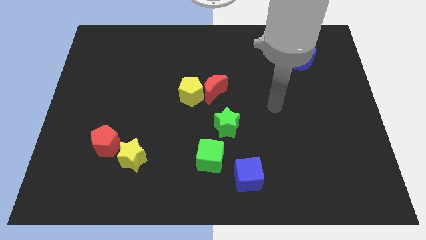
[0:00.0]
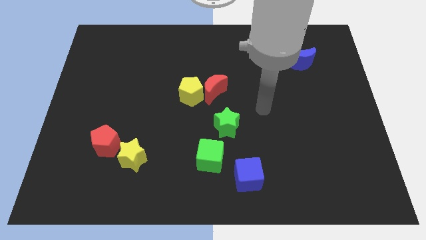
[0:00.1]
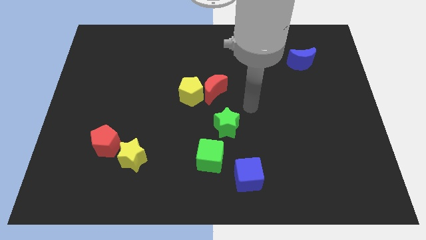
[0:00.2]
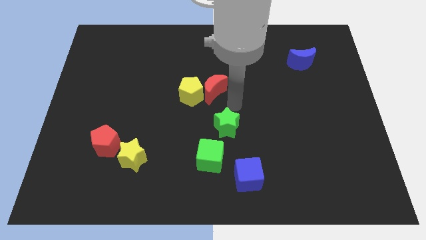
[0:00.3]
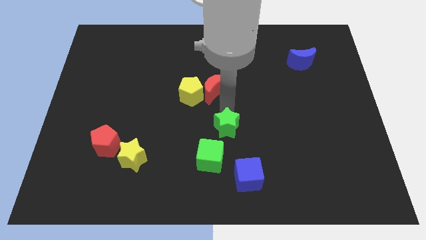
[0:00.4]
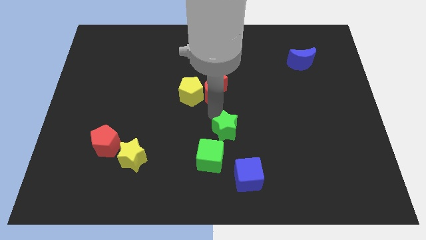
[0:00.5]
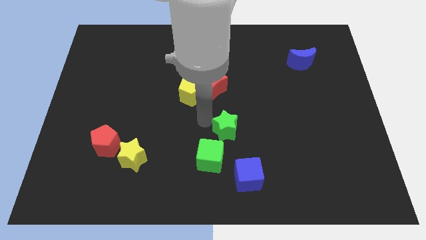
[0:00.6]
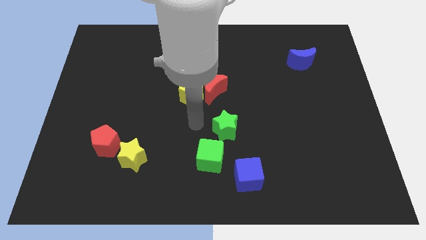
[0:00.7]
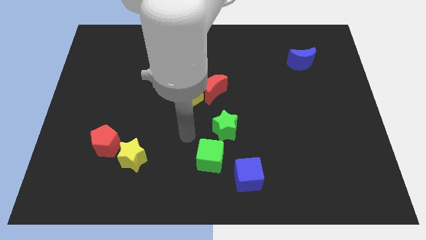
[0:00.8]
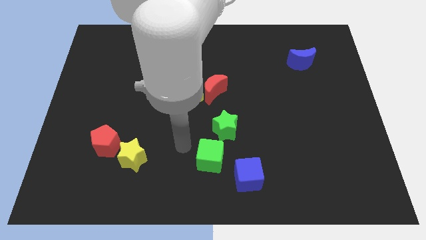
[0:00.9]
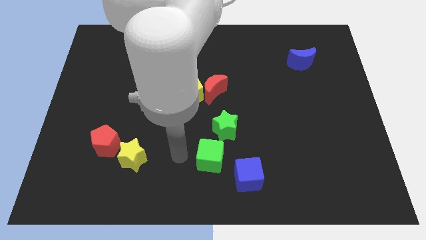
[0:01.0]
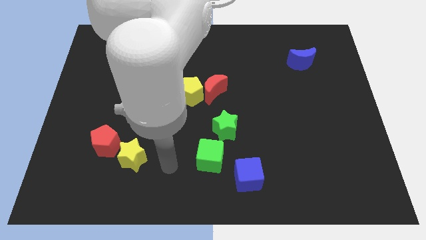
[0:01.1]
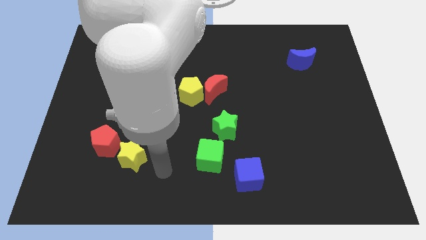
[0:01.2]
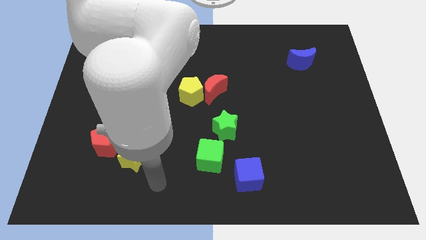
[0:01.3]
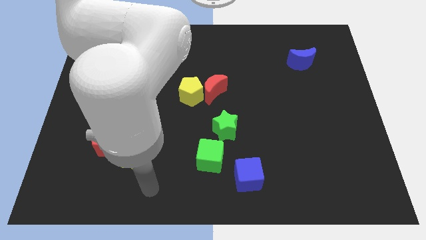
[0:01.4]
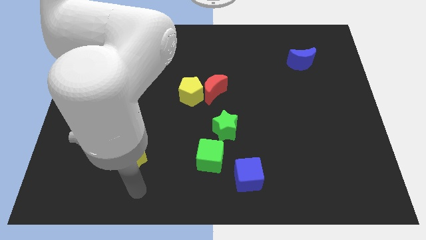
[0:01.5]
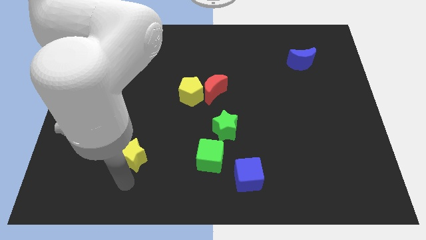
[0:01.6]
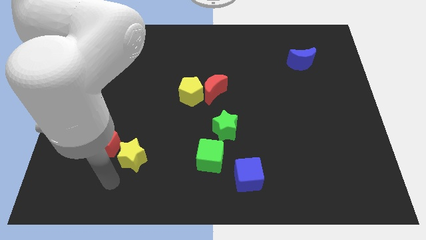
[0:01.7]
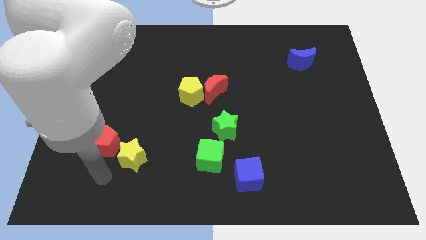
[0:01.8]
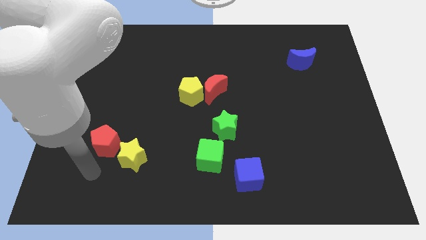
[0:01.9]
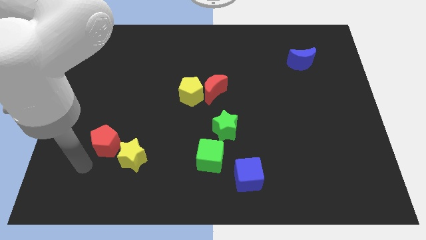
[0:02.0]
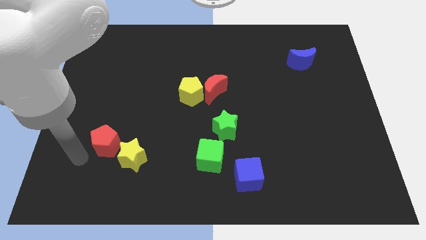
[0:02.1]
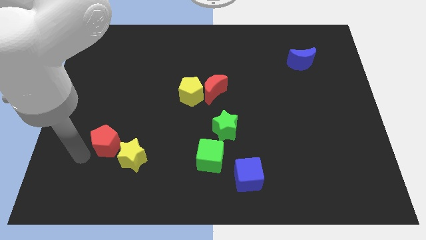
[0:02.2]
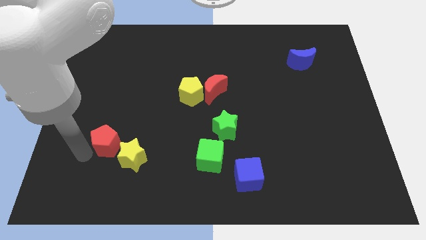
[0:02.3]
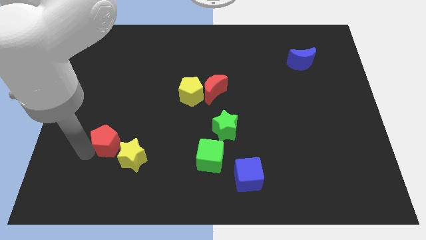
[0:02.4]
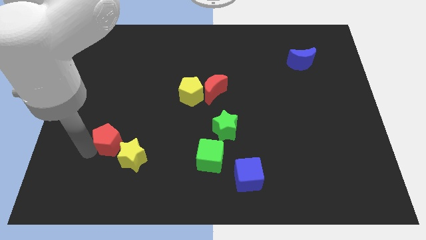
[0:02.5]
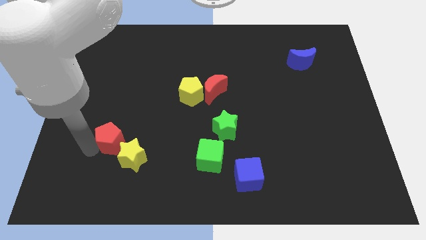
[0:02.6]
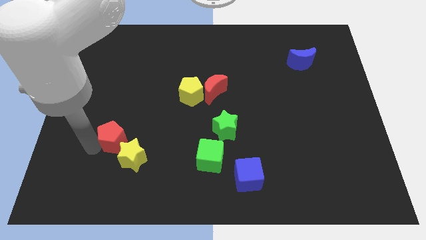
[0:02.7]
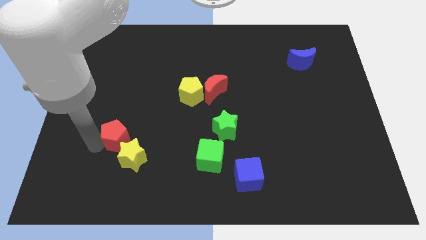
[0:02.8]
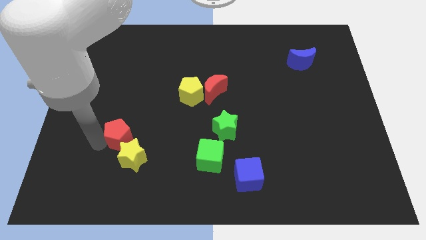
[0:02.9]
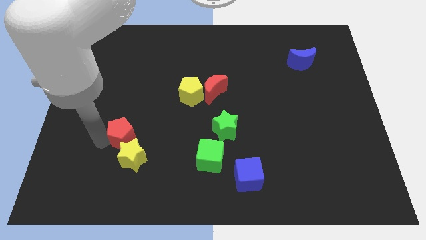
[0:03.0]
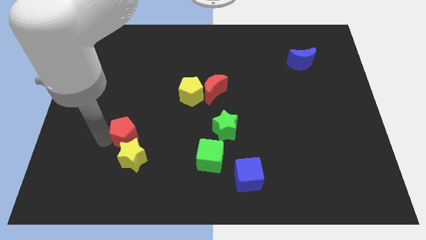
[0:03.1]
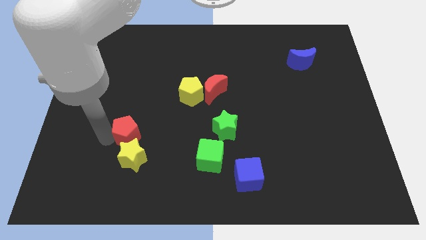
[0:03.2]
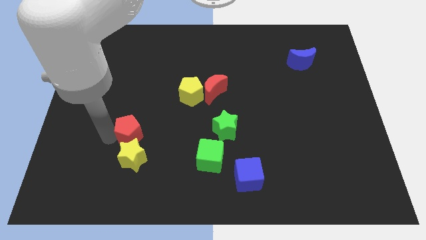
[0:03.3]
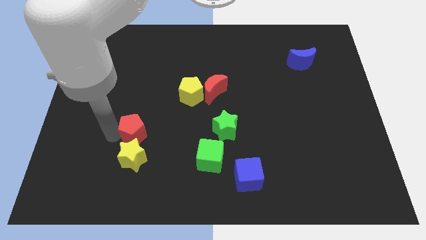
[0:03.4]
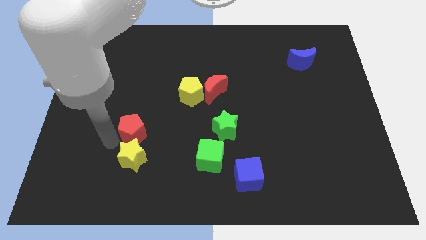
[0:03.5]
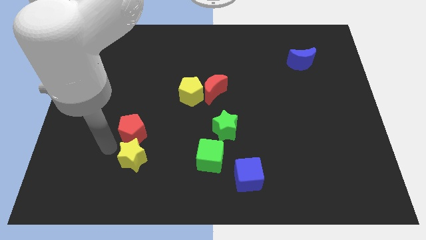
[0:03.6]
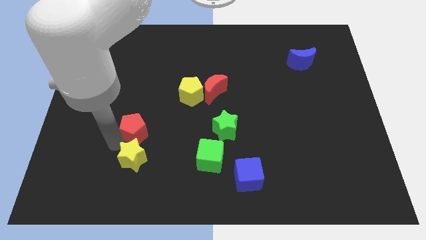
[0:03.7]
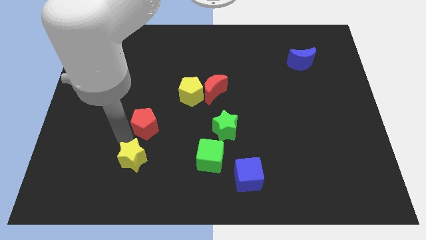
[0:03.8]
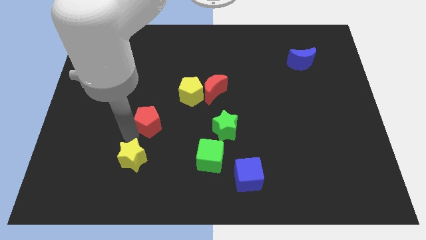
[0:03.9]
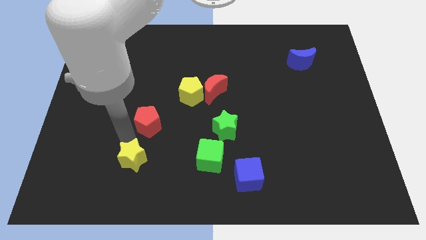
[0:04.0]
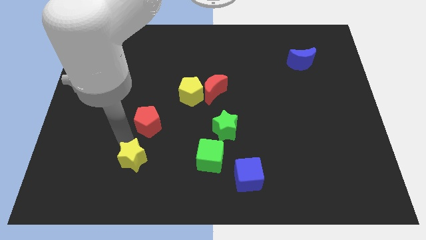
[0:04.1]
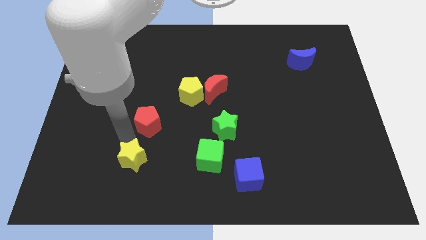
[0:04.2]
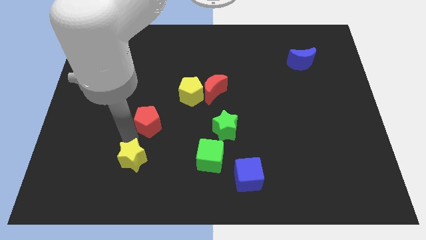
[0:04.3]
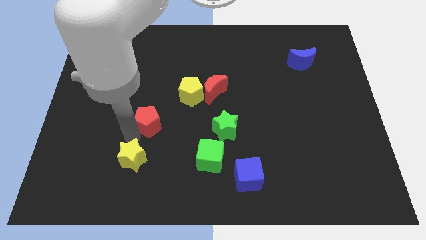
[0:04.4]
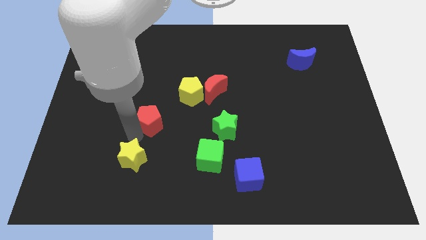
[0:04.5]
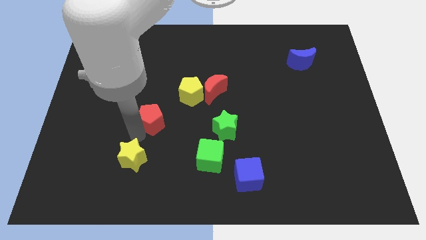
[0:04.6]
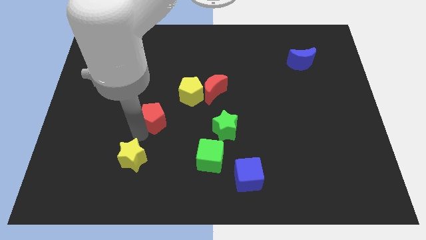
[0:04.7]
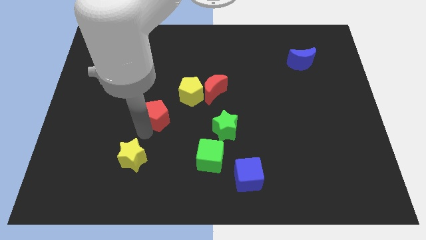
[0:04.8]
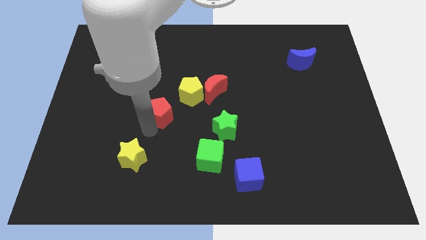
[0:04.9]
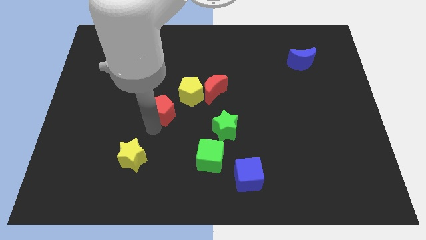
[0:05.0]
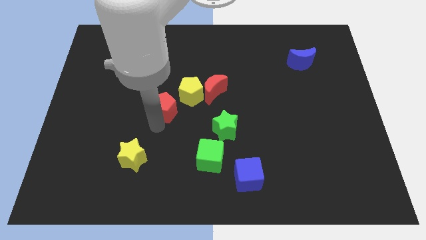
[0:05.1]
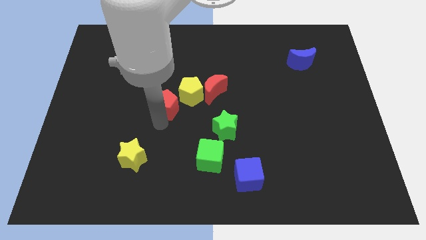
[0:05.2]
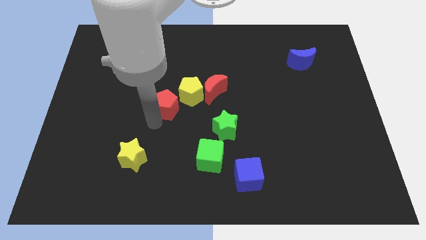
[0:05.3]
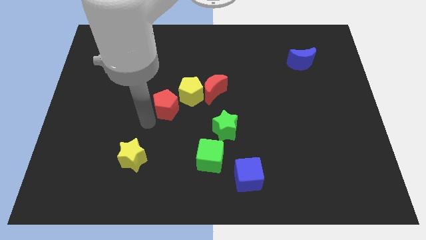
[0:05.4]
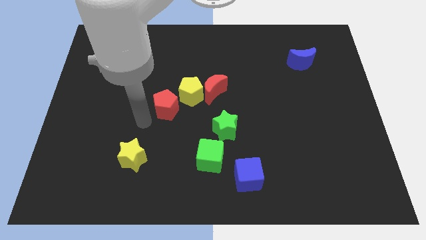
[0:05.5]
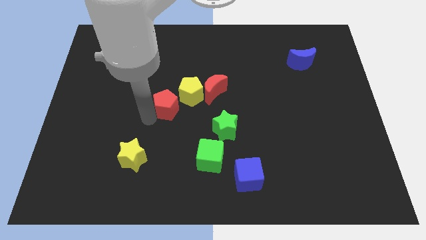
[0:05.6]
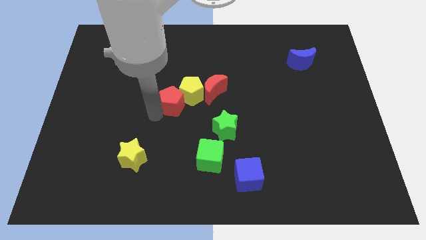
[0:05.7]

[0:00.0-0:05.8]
slide the red pentagon to the yellow pentagon

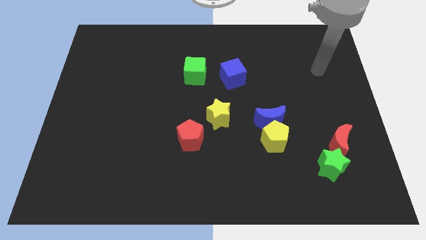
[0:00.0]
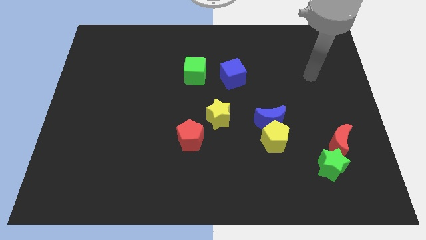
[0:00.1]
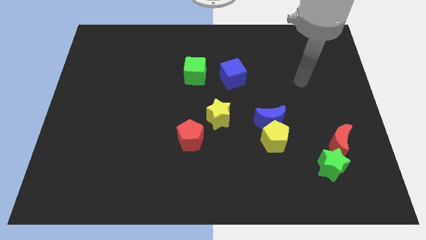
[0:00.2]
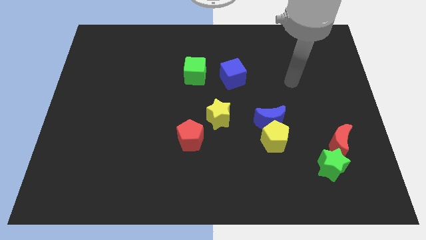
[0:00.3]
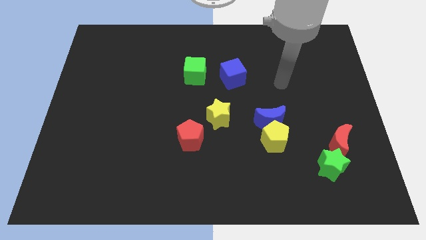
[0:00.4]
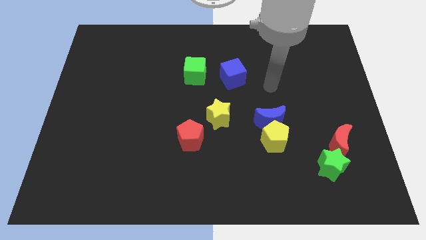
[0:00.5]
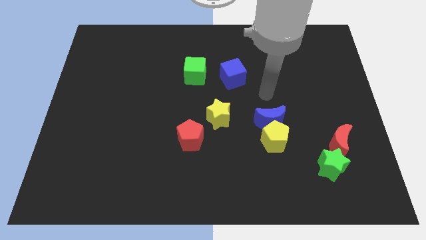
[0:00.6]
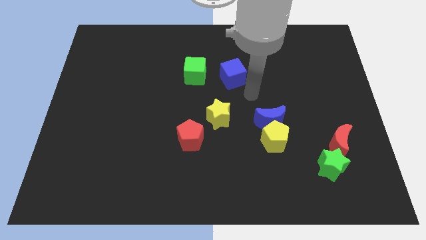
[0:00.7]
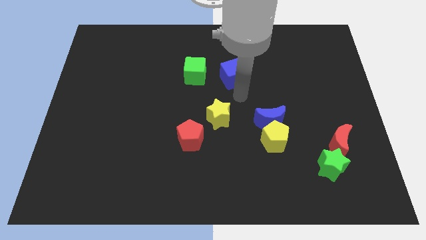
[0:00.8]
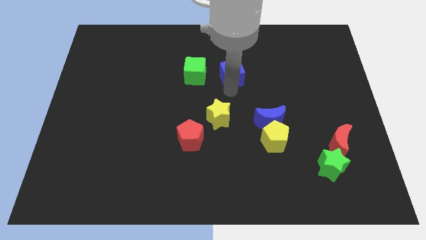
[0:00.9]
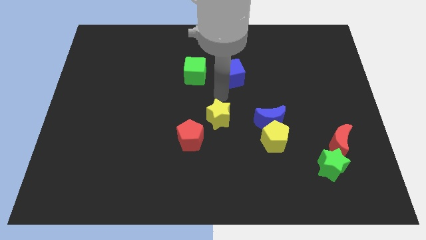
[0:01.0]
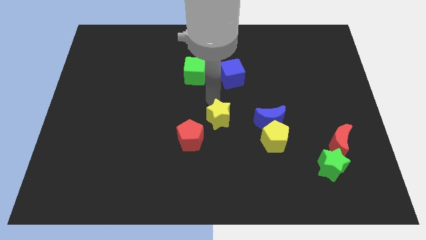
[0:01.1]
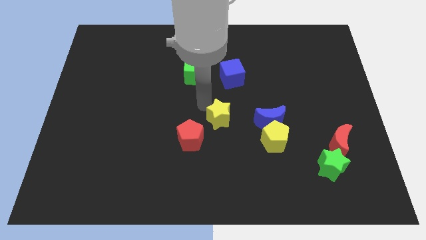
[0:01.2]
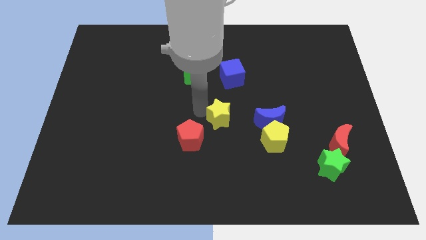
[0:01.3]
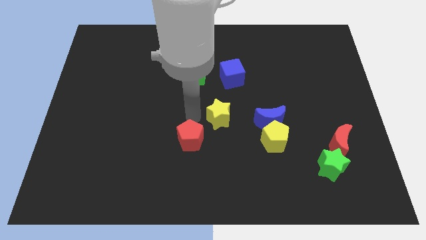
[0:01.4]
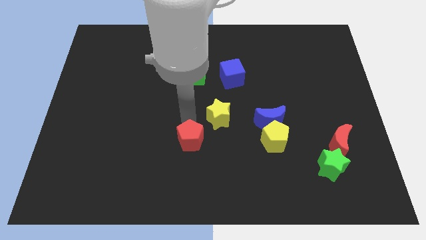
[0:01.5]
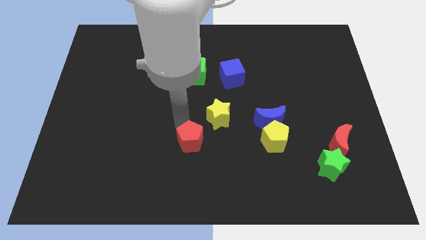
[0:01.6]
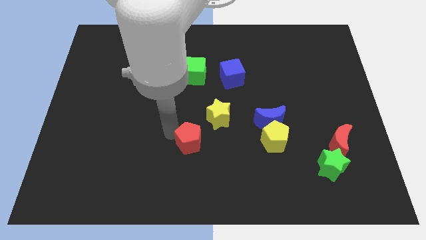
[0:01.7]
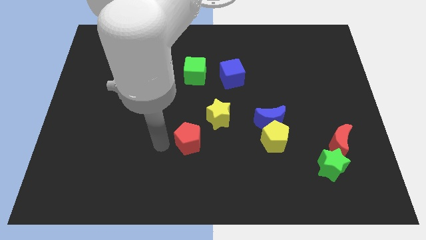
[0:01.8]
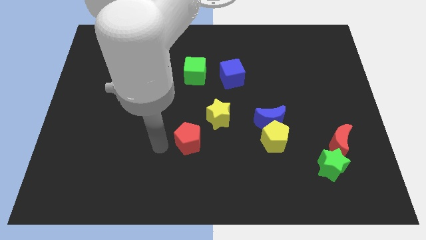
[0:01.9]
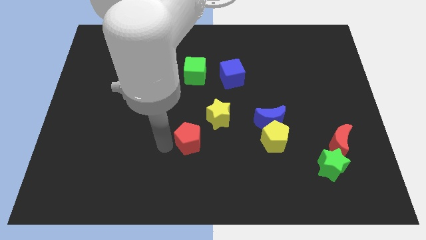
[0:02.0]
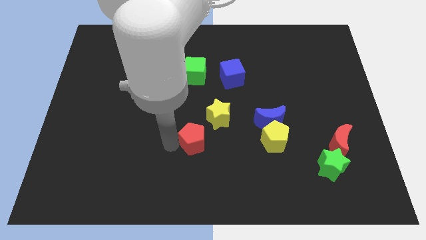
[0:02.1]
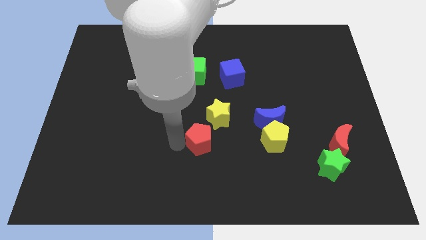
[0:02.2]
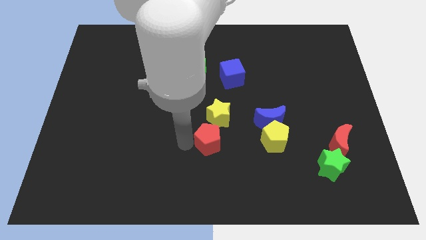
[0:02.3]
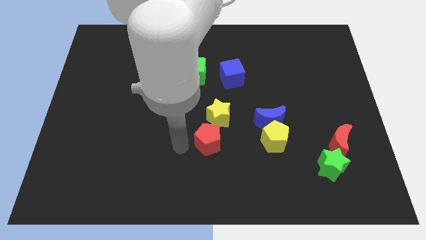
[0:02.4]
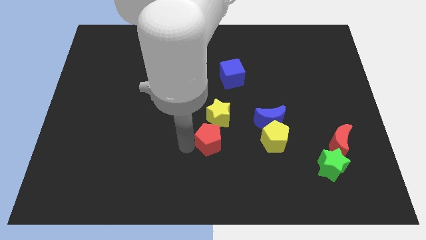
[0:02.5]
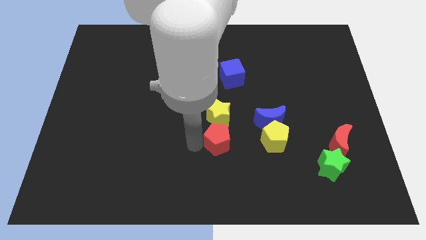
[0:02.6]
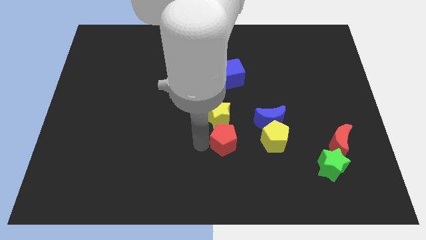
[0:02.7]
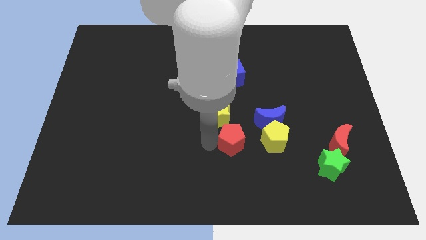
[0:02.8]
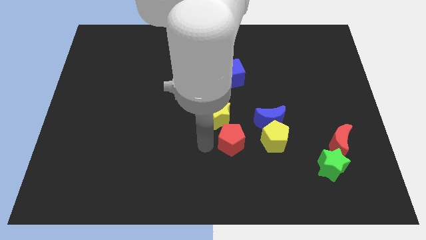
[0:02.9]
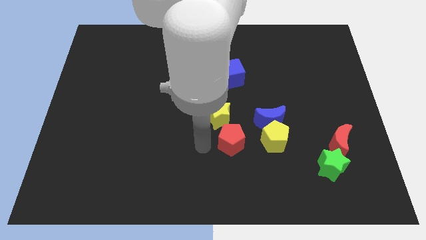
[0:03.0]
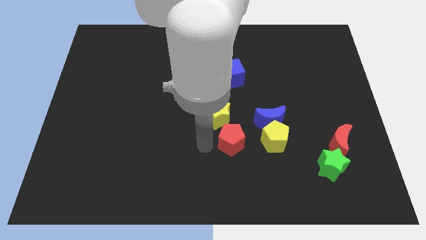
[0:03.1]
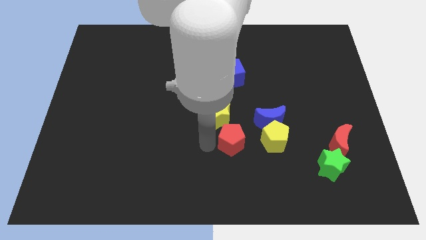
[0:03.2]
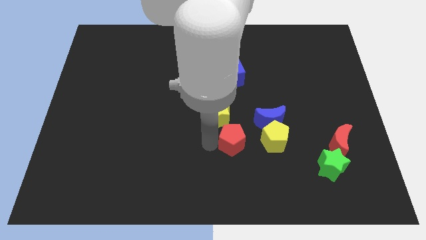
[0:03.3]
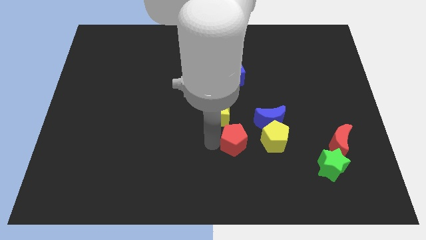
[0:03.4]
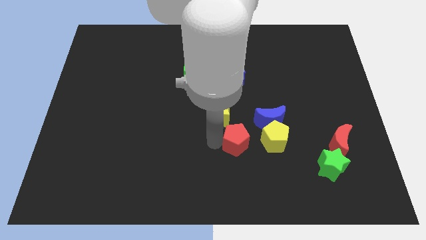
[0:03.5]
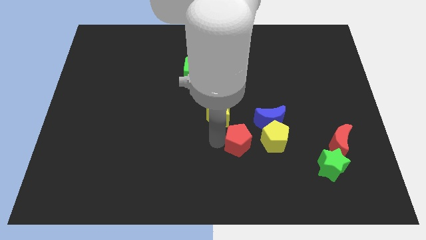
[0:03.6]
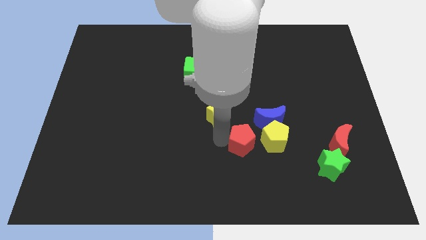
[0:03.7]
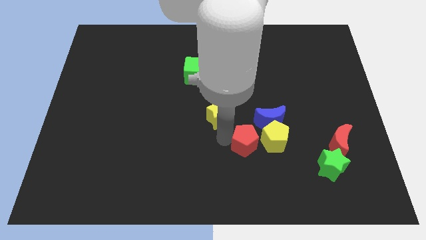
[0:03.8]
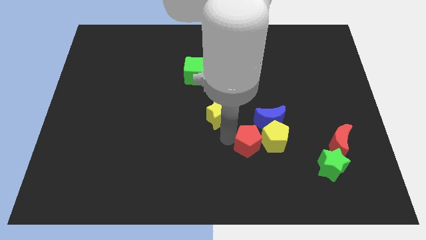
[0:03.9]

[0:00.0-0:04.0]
put the red pentagon close to the yellow pentagon
